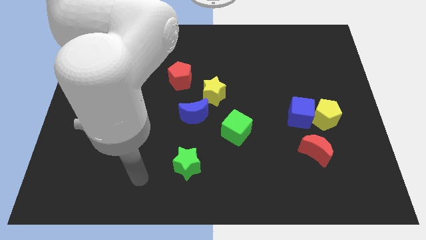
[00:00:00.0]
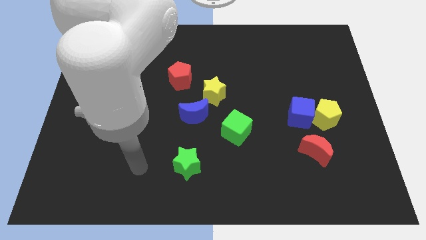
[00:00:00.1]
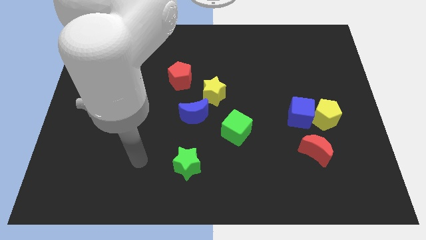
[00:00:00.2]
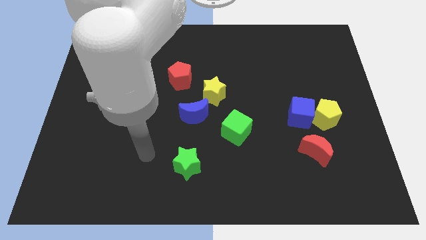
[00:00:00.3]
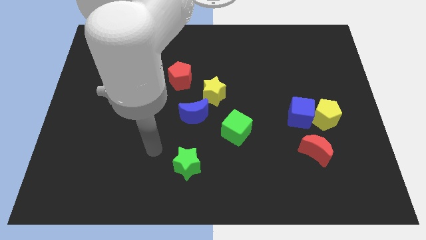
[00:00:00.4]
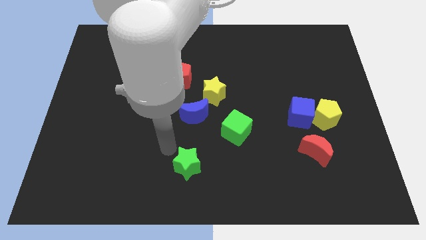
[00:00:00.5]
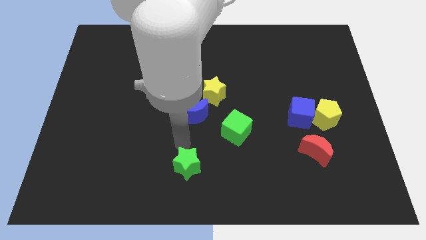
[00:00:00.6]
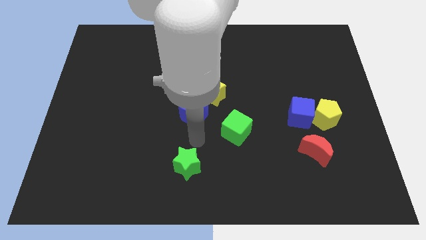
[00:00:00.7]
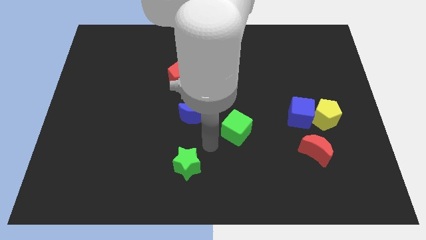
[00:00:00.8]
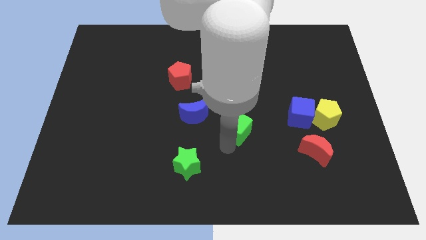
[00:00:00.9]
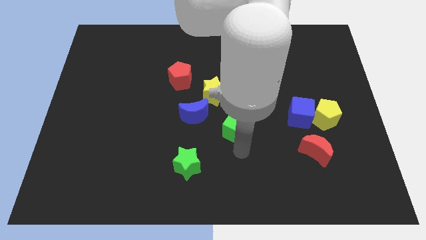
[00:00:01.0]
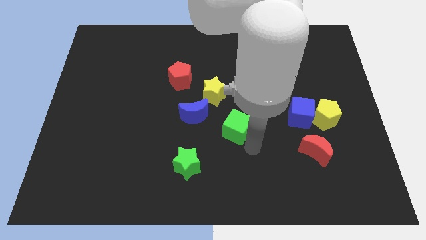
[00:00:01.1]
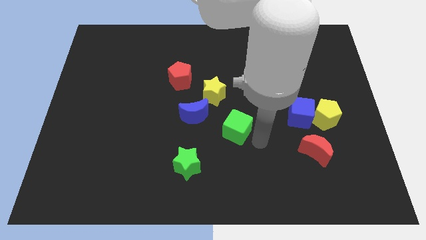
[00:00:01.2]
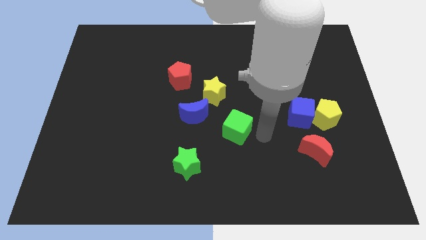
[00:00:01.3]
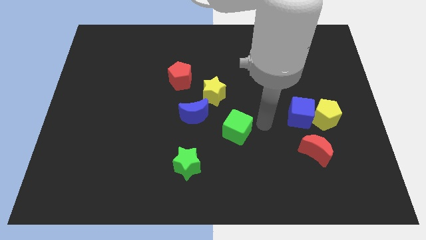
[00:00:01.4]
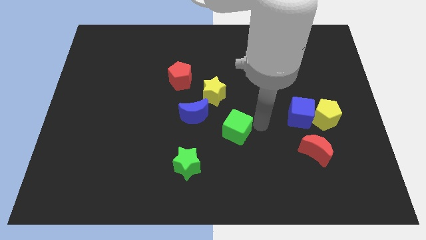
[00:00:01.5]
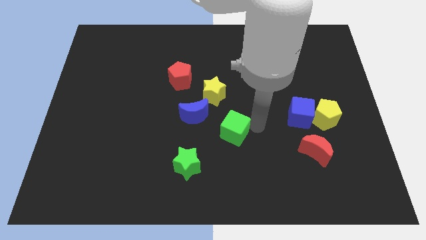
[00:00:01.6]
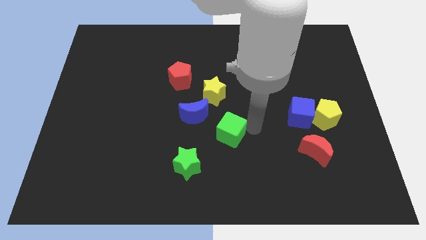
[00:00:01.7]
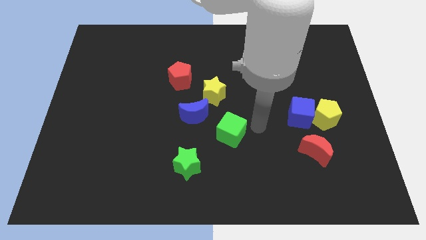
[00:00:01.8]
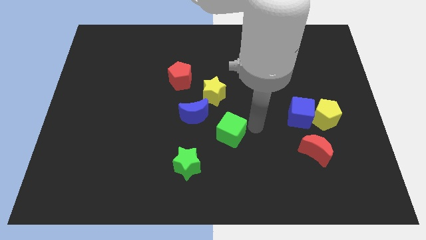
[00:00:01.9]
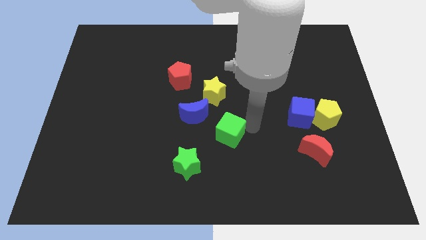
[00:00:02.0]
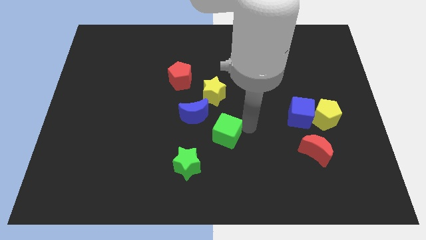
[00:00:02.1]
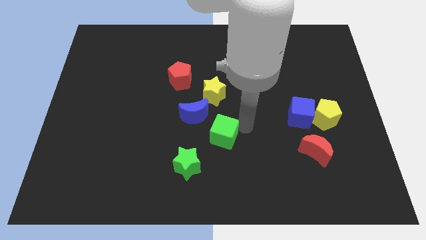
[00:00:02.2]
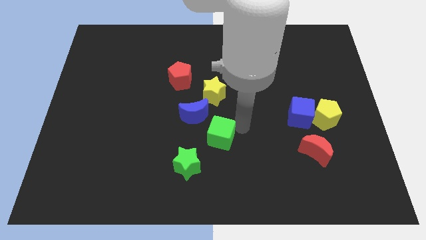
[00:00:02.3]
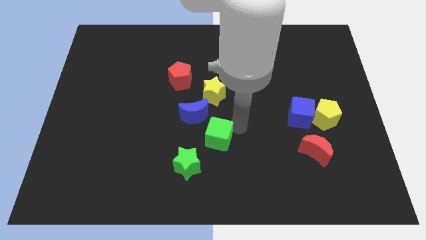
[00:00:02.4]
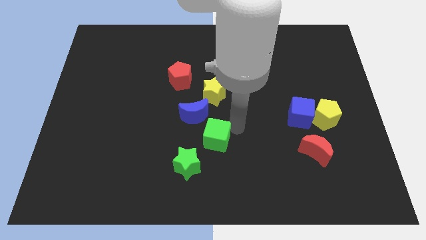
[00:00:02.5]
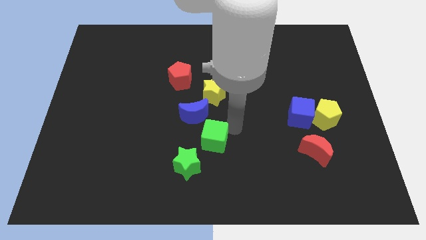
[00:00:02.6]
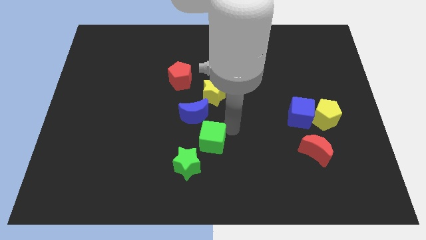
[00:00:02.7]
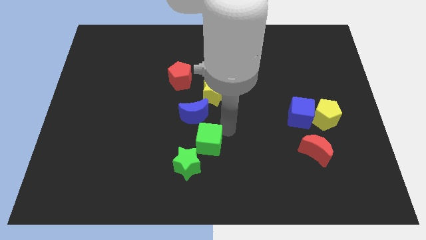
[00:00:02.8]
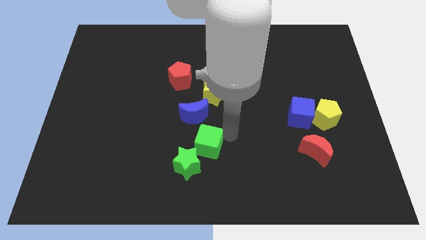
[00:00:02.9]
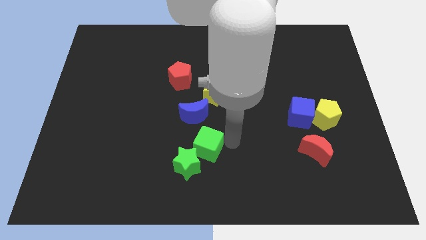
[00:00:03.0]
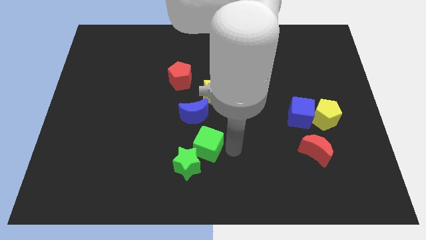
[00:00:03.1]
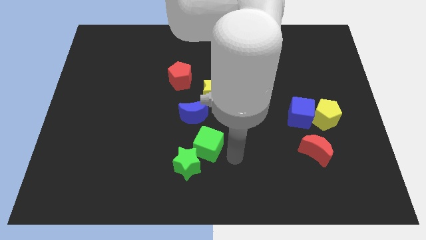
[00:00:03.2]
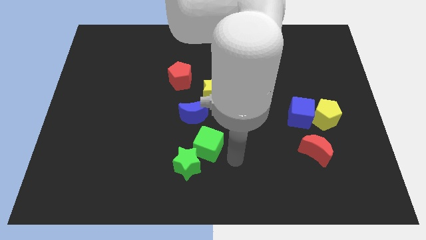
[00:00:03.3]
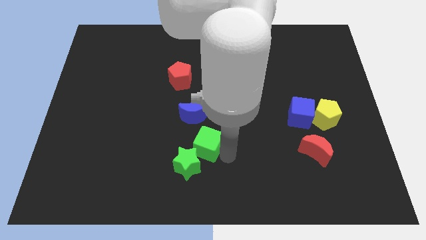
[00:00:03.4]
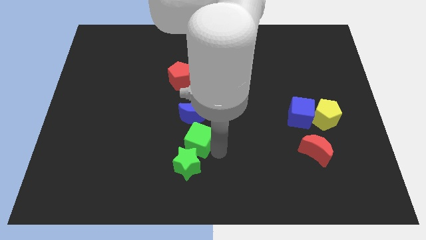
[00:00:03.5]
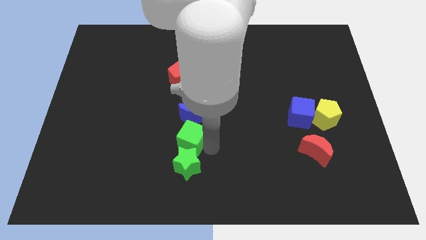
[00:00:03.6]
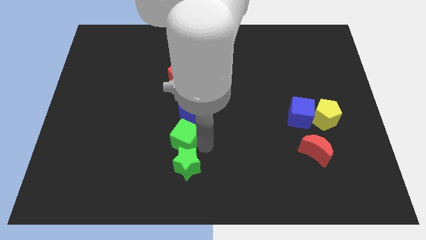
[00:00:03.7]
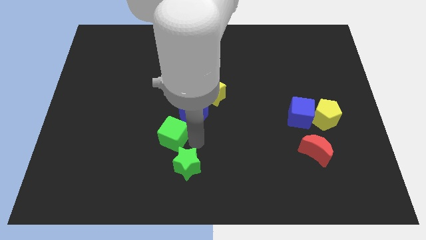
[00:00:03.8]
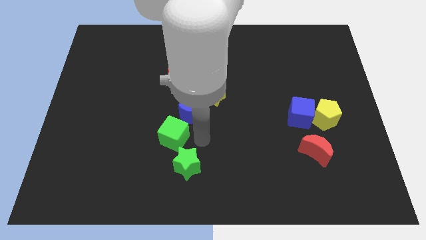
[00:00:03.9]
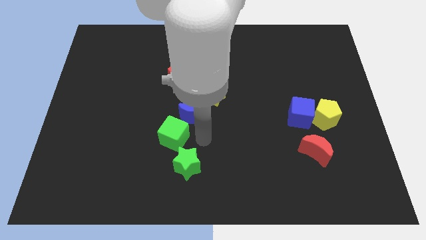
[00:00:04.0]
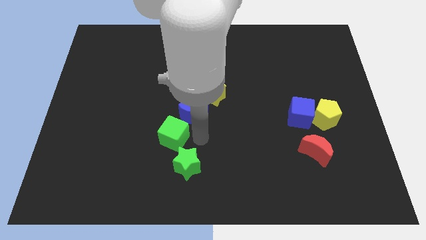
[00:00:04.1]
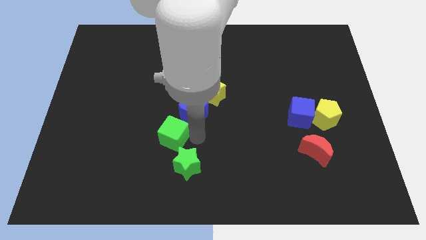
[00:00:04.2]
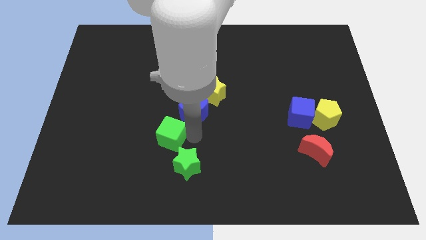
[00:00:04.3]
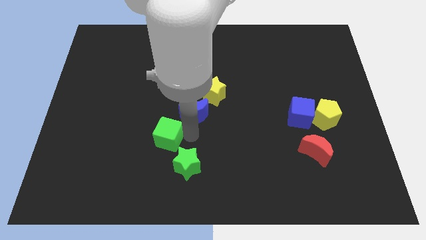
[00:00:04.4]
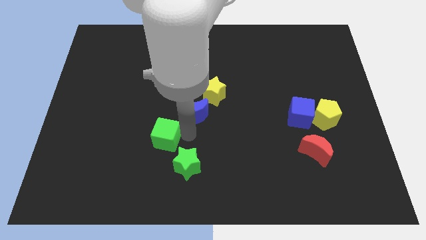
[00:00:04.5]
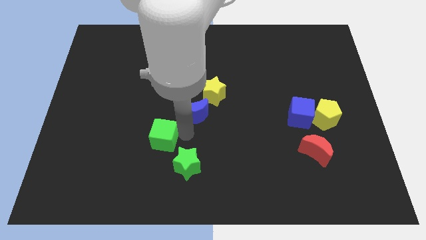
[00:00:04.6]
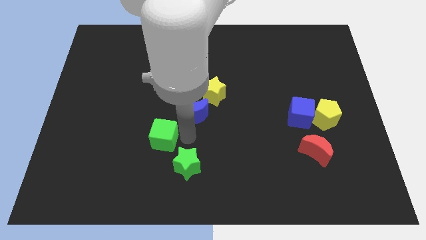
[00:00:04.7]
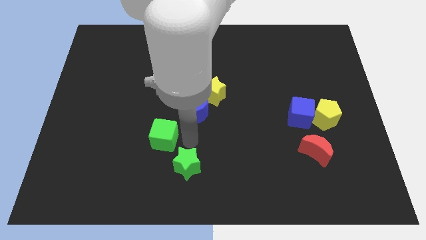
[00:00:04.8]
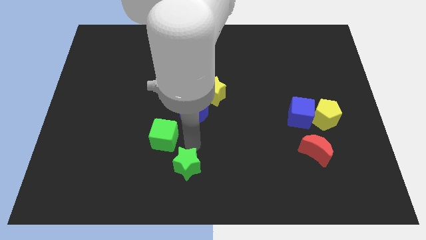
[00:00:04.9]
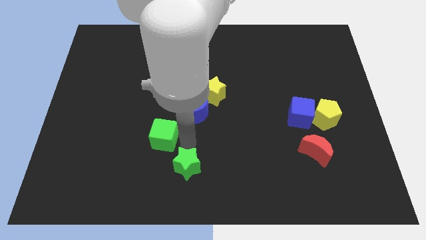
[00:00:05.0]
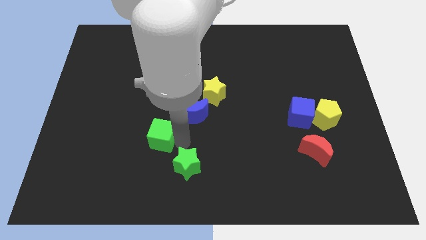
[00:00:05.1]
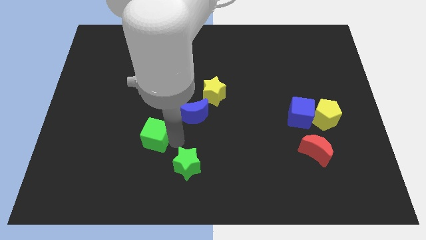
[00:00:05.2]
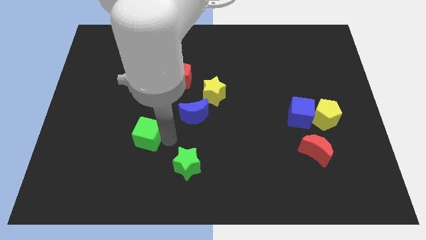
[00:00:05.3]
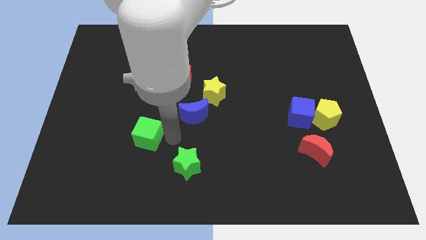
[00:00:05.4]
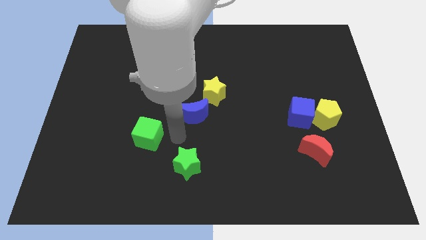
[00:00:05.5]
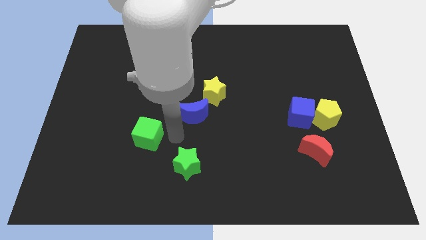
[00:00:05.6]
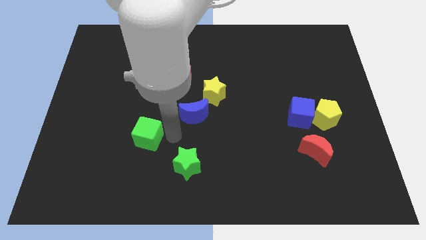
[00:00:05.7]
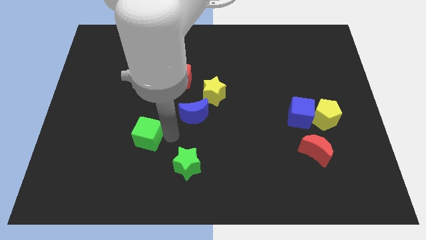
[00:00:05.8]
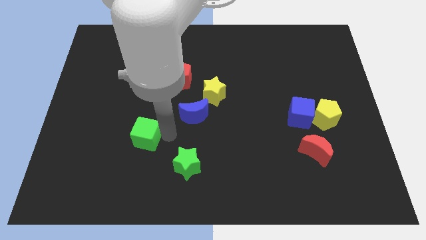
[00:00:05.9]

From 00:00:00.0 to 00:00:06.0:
push the green cube left

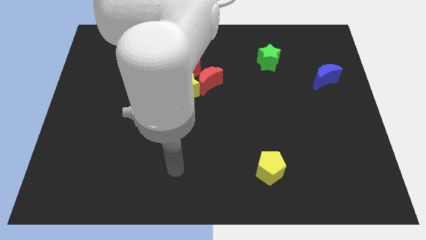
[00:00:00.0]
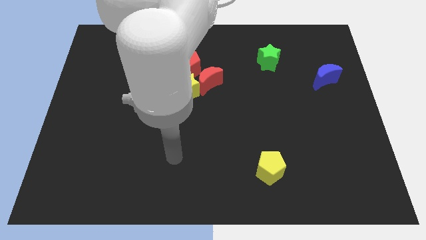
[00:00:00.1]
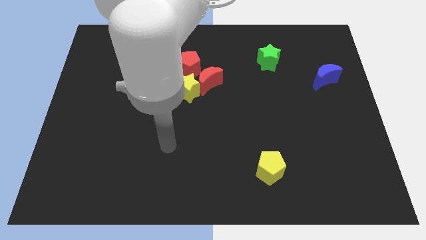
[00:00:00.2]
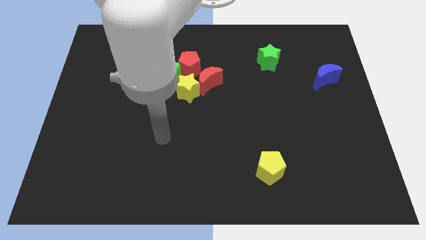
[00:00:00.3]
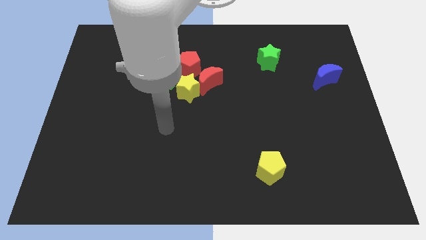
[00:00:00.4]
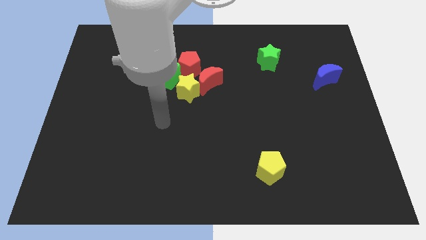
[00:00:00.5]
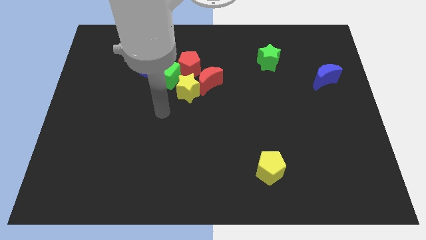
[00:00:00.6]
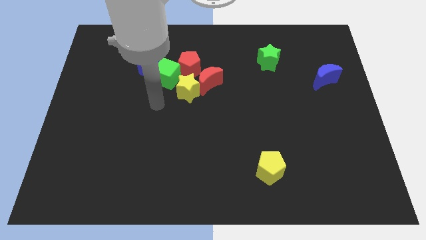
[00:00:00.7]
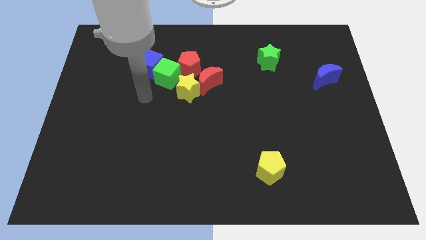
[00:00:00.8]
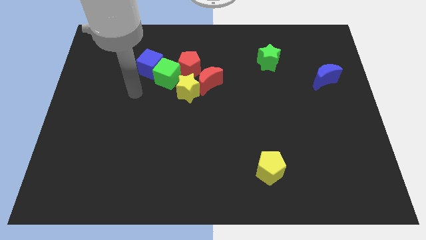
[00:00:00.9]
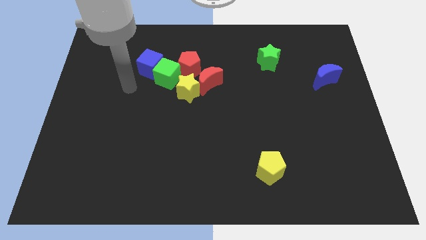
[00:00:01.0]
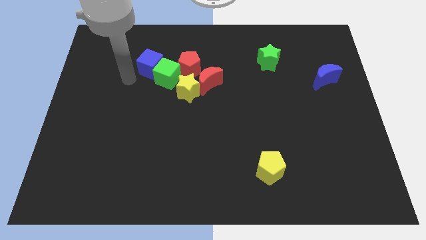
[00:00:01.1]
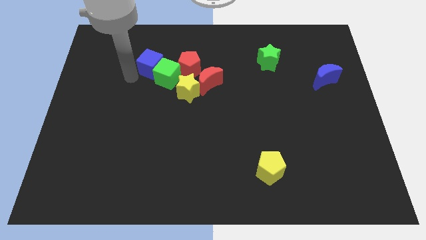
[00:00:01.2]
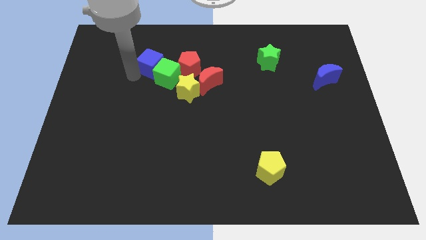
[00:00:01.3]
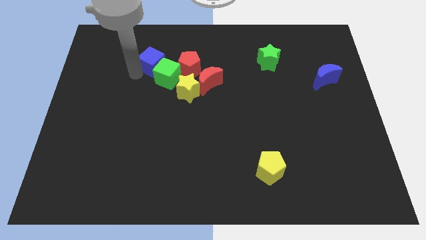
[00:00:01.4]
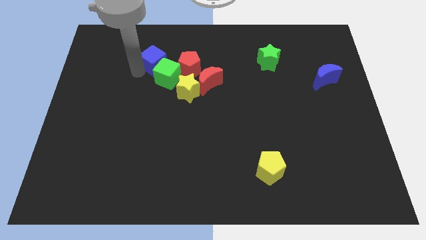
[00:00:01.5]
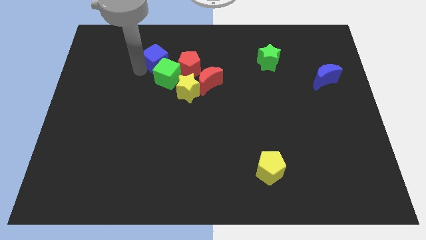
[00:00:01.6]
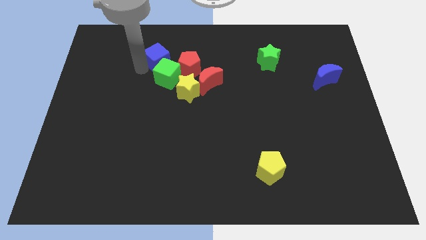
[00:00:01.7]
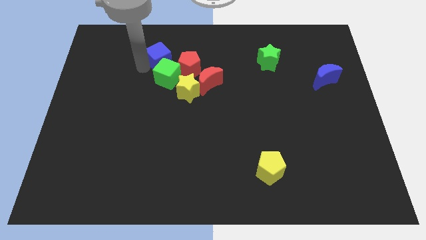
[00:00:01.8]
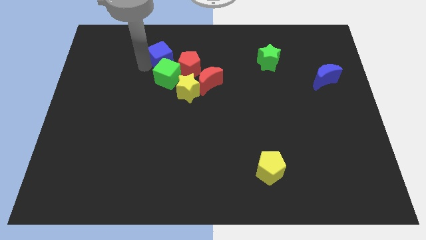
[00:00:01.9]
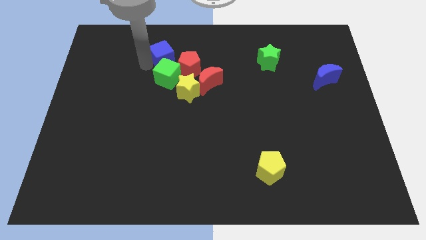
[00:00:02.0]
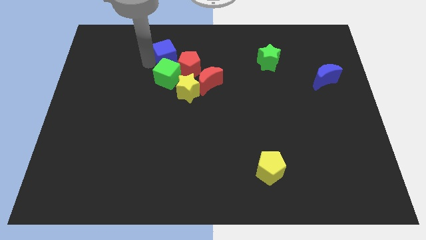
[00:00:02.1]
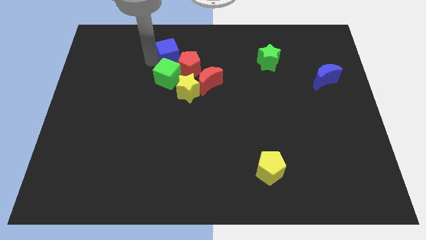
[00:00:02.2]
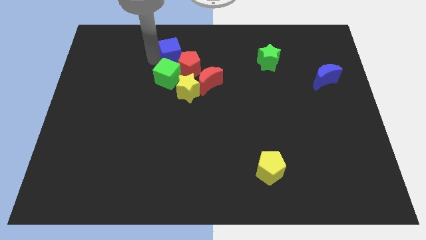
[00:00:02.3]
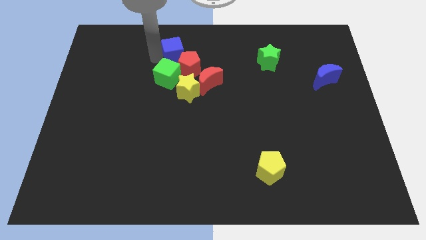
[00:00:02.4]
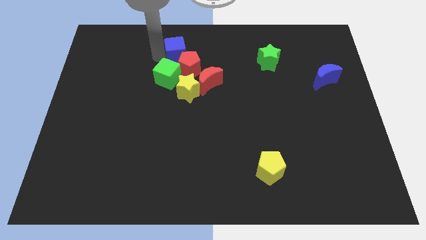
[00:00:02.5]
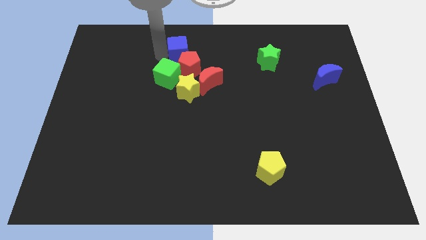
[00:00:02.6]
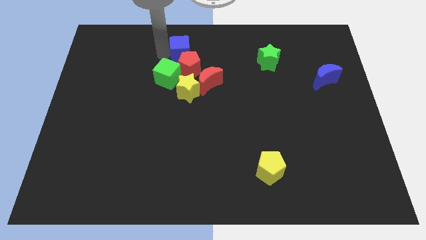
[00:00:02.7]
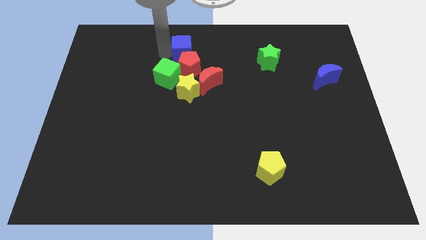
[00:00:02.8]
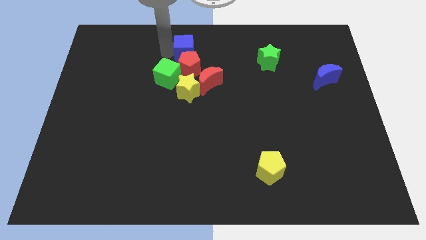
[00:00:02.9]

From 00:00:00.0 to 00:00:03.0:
slightly push the blue cube to the right
